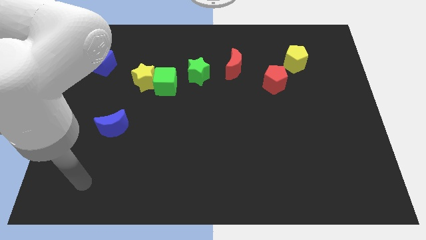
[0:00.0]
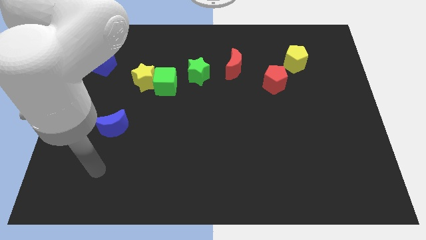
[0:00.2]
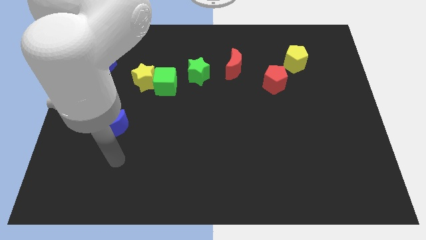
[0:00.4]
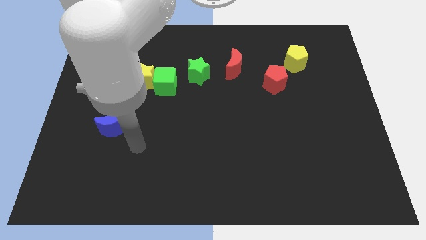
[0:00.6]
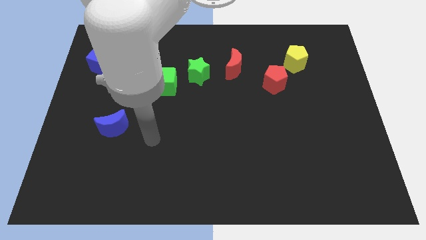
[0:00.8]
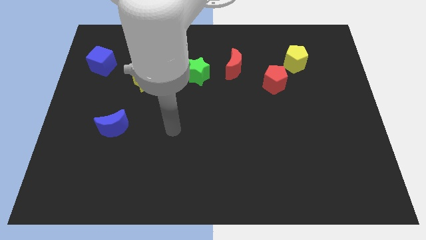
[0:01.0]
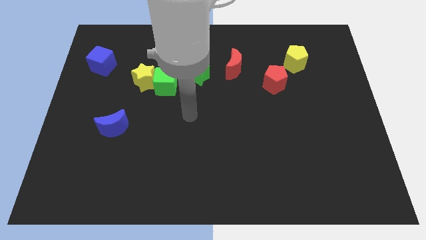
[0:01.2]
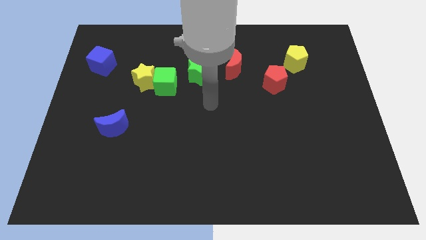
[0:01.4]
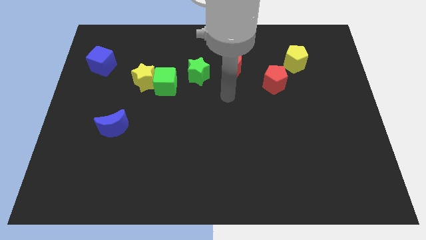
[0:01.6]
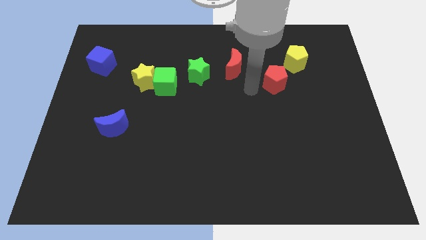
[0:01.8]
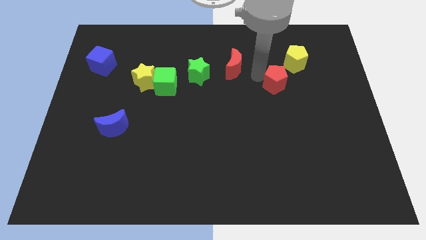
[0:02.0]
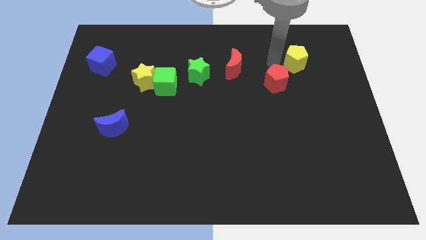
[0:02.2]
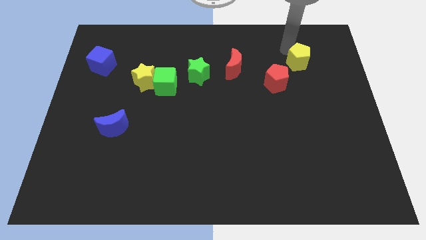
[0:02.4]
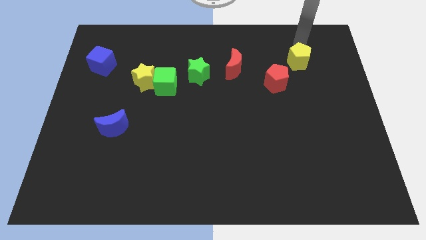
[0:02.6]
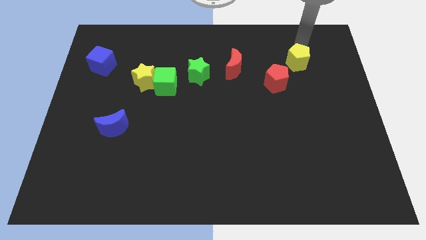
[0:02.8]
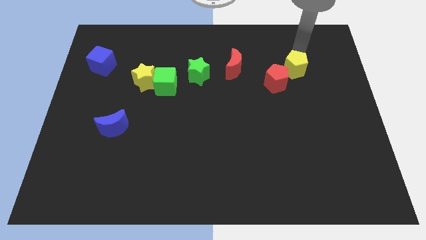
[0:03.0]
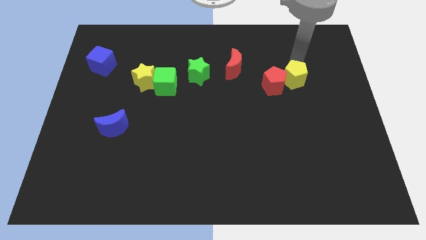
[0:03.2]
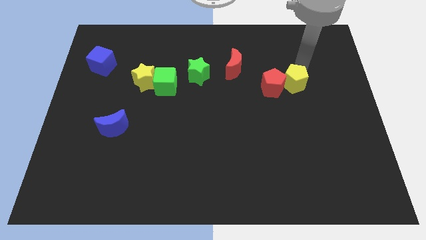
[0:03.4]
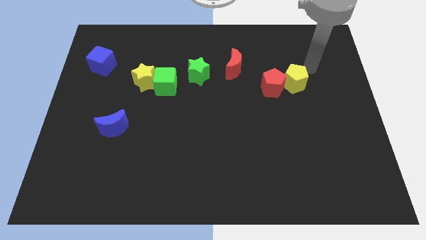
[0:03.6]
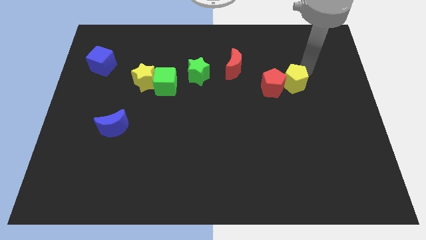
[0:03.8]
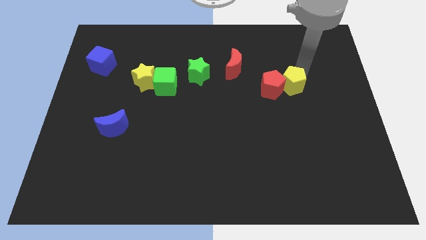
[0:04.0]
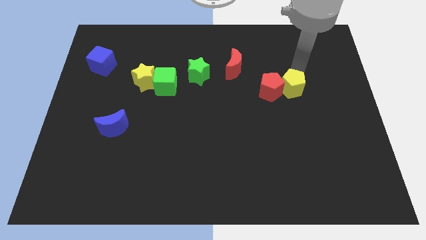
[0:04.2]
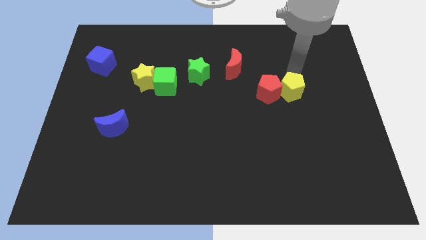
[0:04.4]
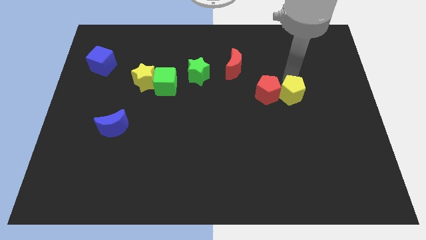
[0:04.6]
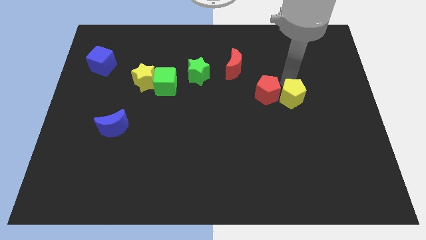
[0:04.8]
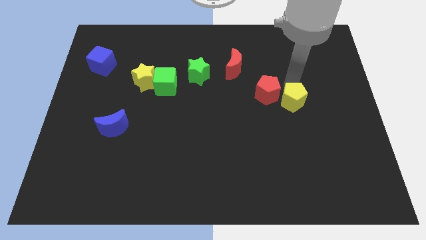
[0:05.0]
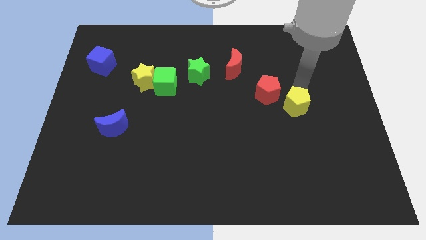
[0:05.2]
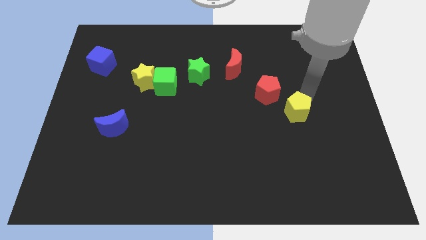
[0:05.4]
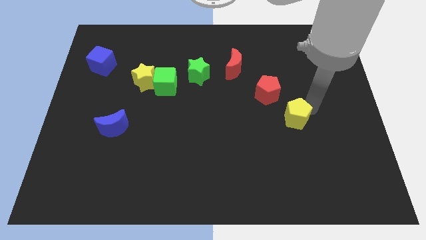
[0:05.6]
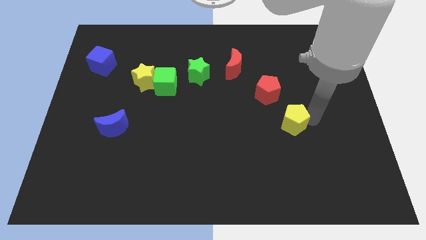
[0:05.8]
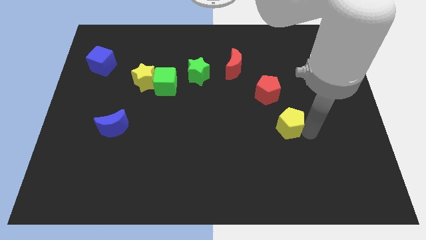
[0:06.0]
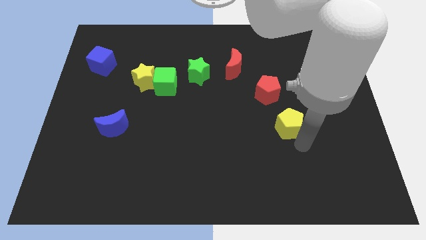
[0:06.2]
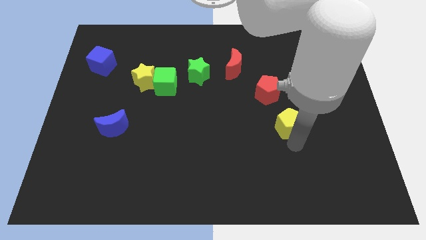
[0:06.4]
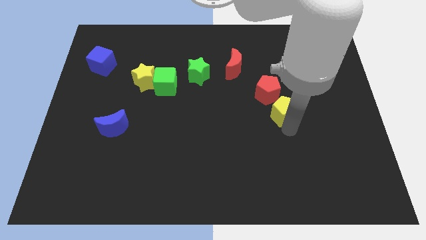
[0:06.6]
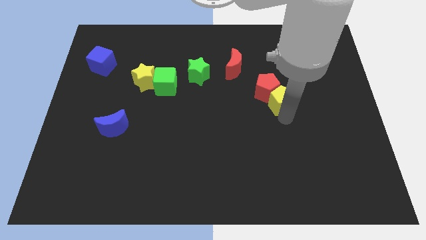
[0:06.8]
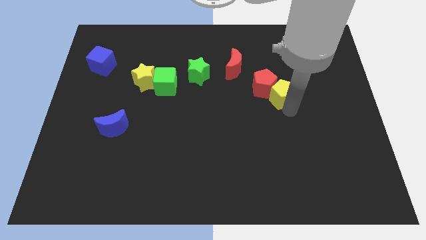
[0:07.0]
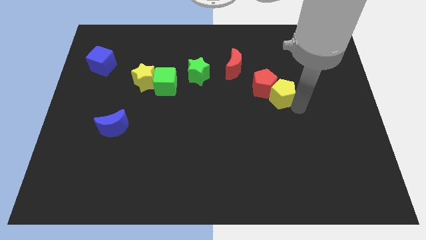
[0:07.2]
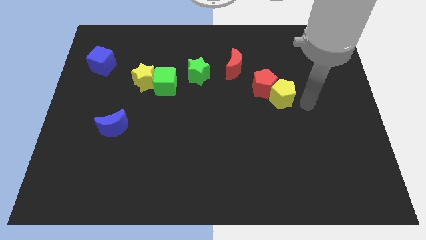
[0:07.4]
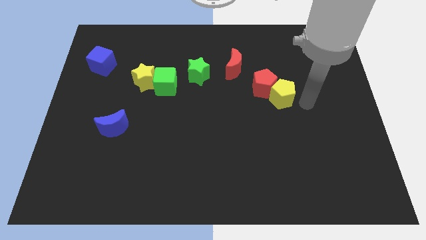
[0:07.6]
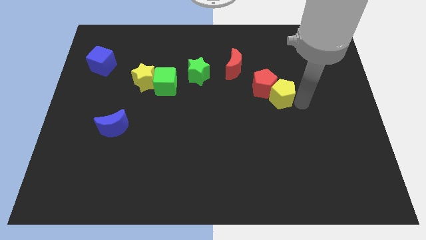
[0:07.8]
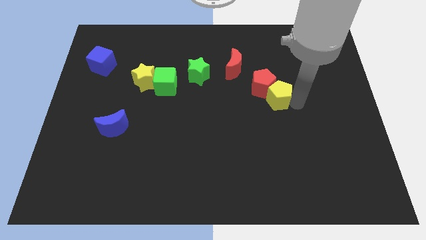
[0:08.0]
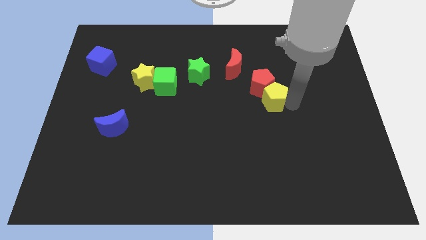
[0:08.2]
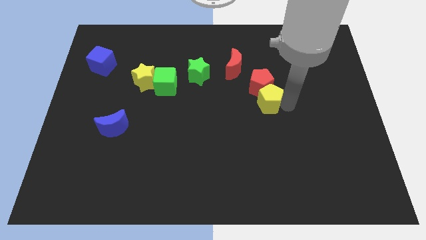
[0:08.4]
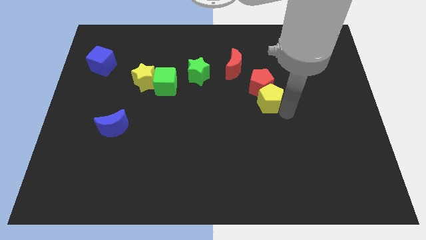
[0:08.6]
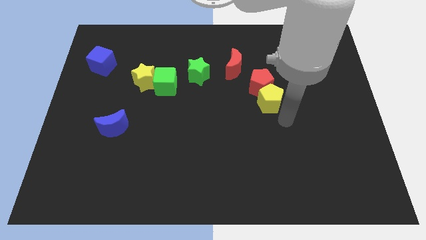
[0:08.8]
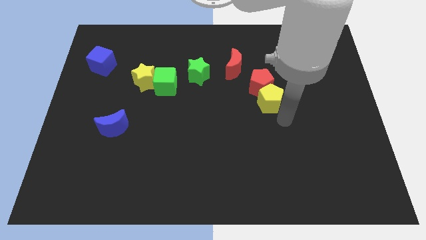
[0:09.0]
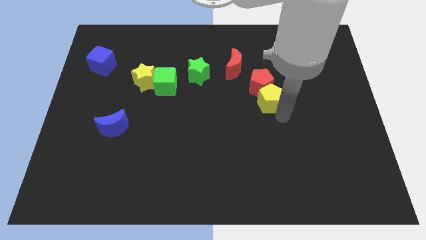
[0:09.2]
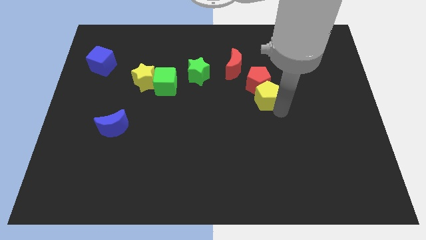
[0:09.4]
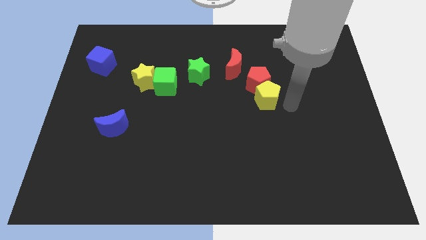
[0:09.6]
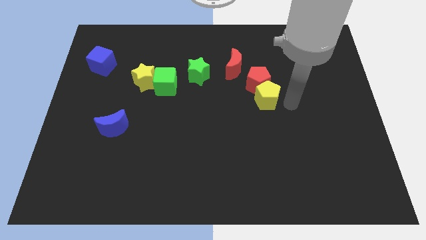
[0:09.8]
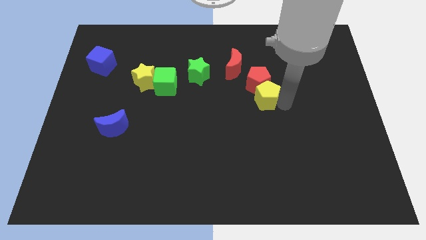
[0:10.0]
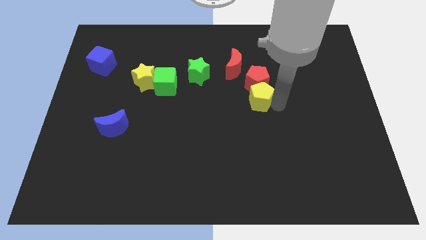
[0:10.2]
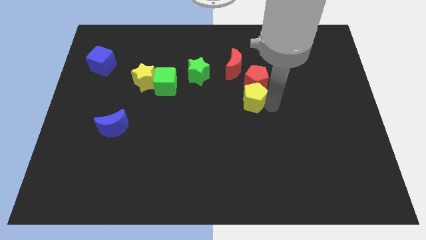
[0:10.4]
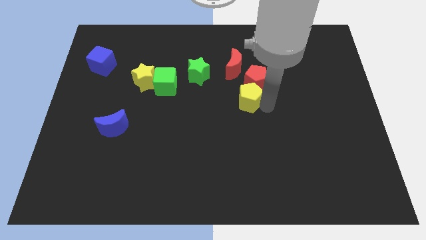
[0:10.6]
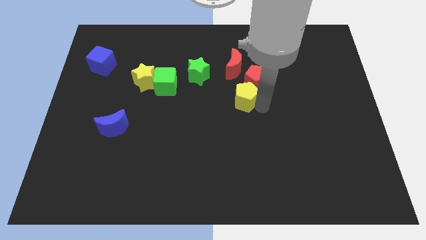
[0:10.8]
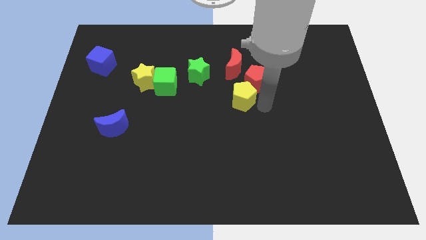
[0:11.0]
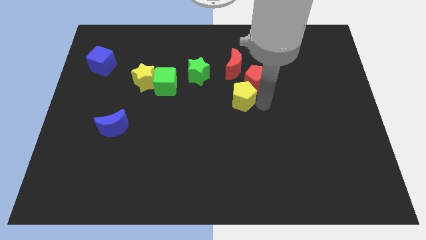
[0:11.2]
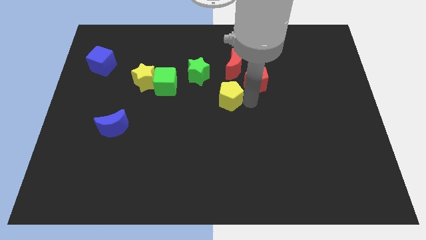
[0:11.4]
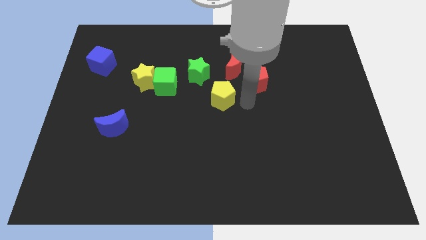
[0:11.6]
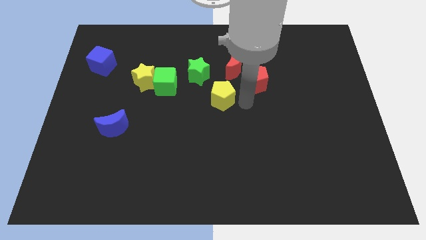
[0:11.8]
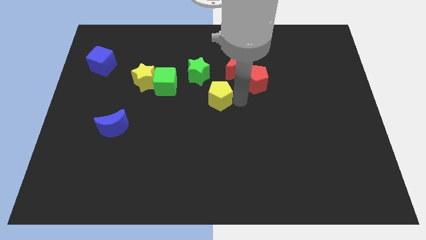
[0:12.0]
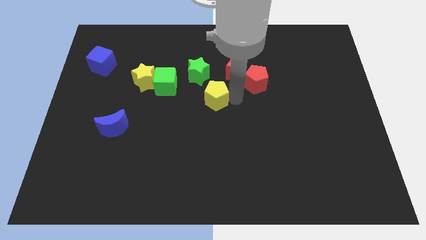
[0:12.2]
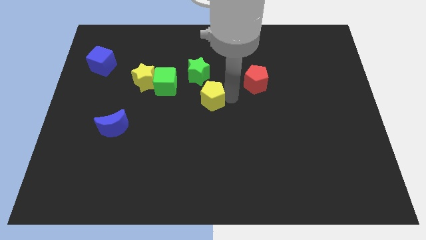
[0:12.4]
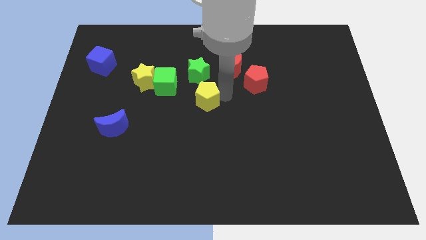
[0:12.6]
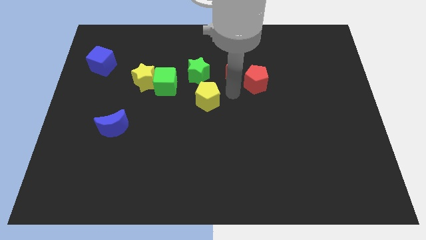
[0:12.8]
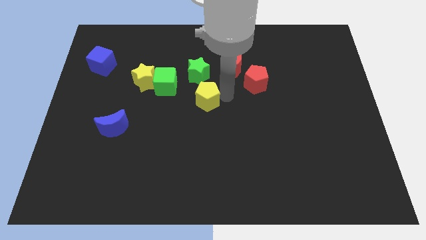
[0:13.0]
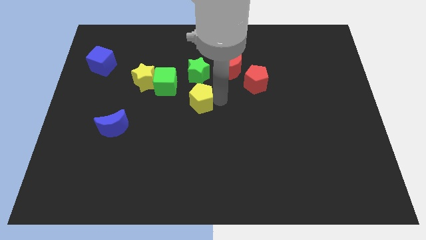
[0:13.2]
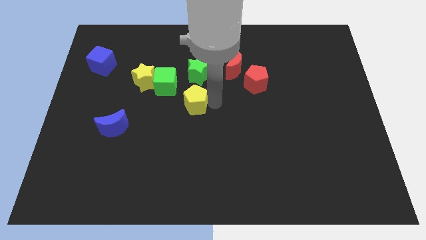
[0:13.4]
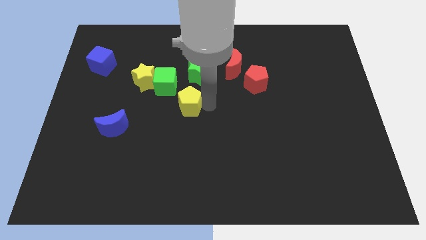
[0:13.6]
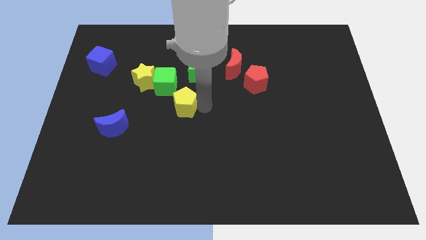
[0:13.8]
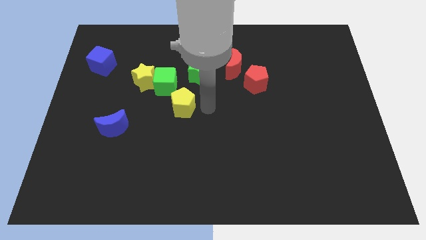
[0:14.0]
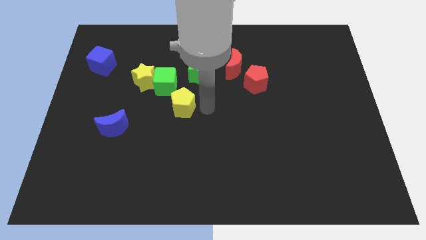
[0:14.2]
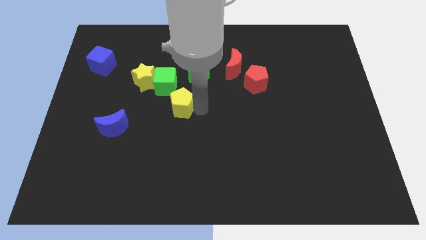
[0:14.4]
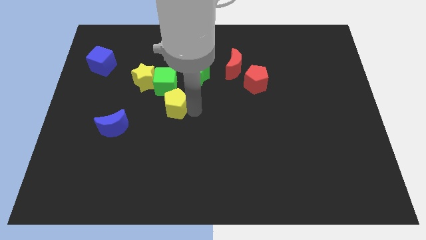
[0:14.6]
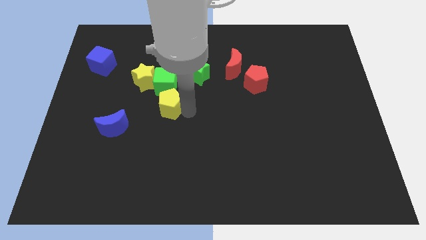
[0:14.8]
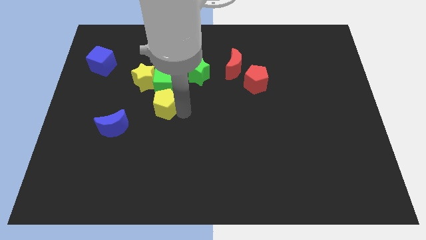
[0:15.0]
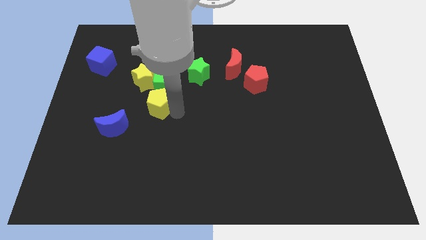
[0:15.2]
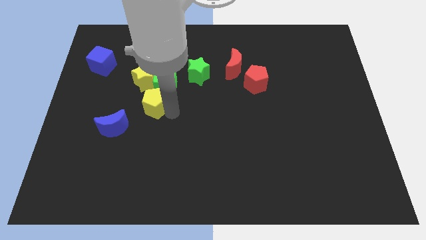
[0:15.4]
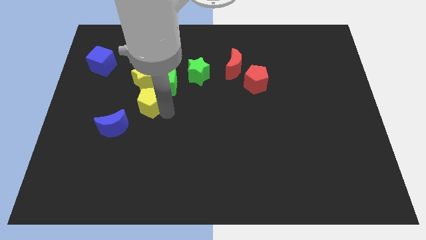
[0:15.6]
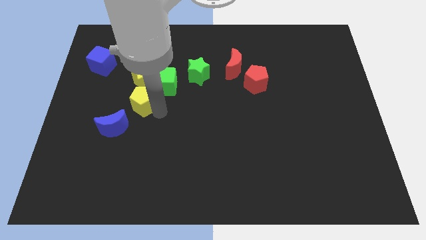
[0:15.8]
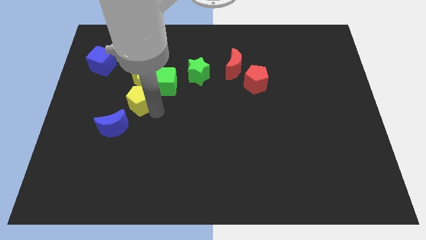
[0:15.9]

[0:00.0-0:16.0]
slide the yellow pentagon to the bottom left side of the yellow star
